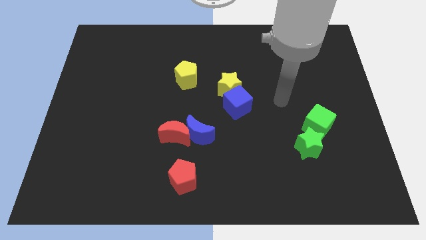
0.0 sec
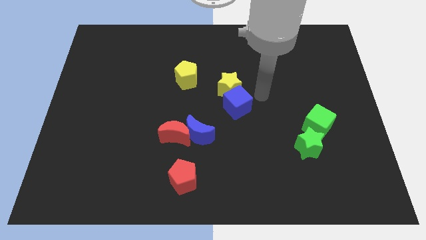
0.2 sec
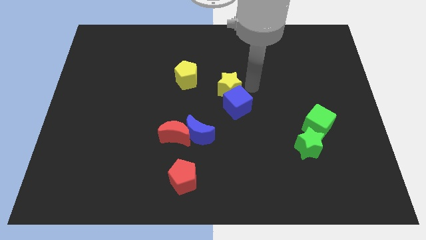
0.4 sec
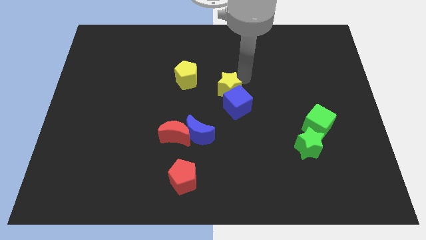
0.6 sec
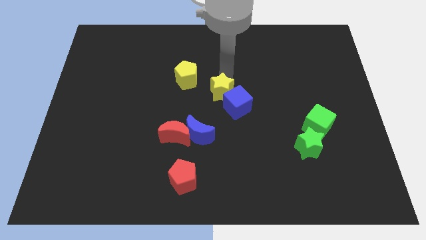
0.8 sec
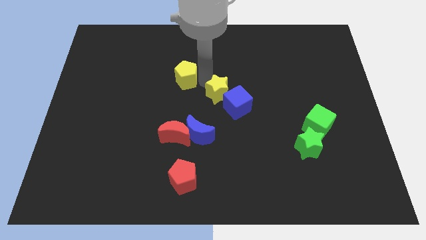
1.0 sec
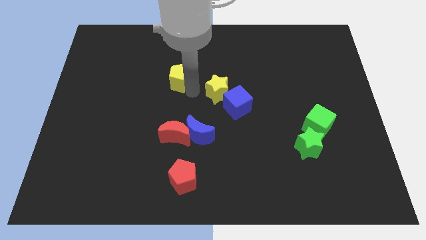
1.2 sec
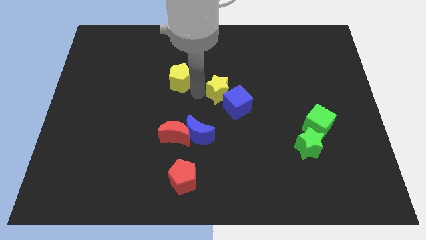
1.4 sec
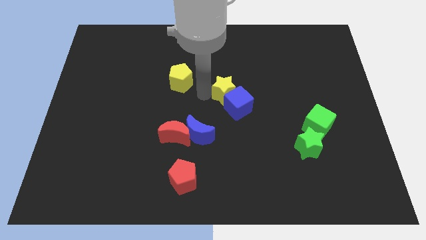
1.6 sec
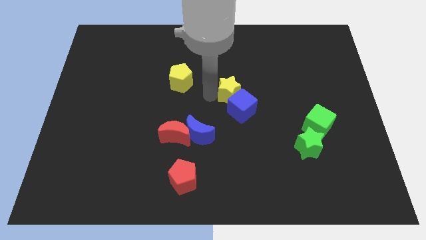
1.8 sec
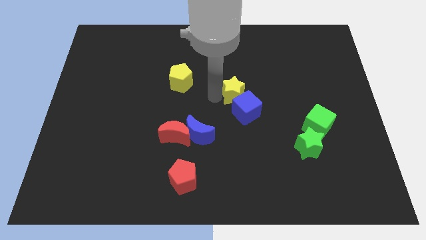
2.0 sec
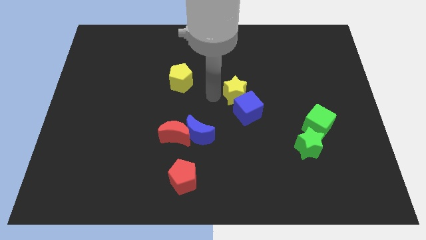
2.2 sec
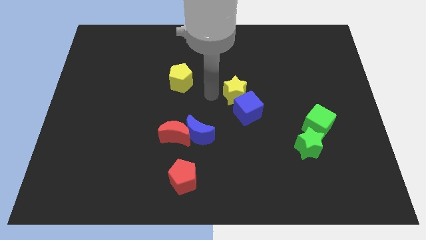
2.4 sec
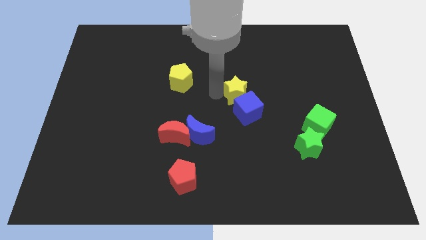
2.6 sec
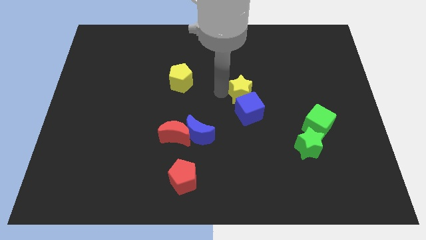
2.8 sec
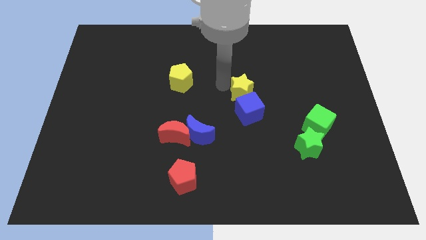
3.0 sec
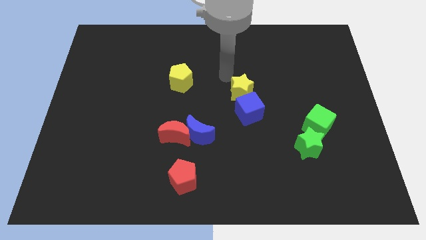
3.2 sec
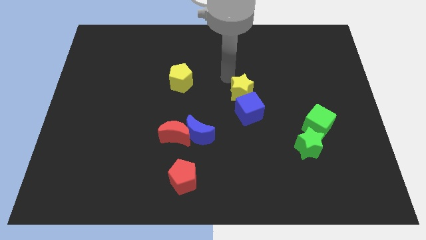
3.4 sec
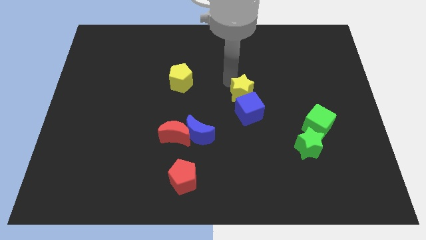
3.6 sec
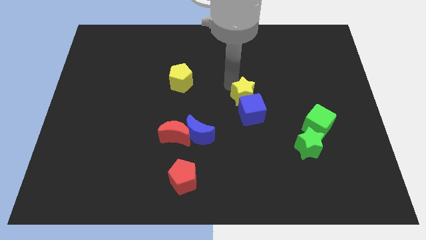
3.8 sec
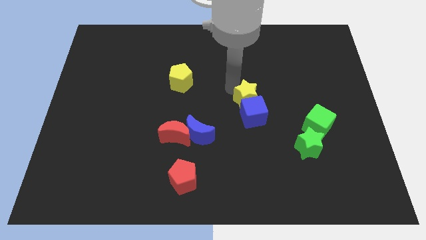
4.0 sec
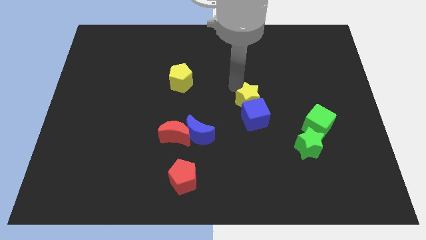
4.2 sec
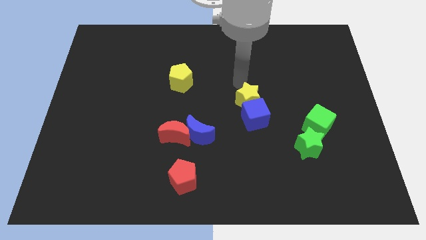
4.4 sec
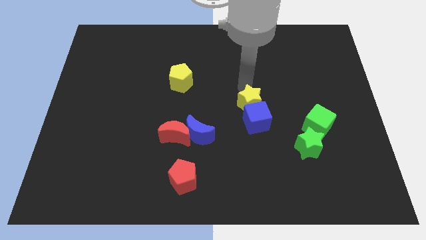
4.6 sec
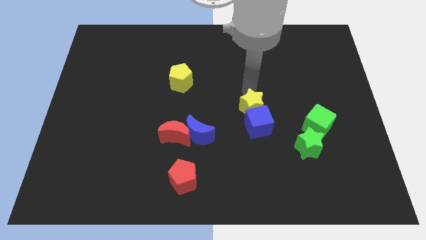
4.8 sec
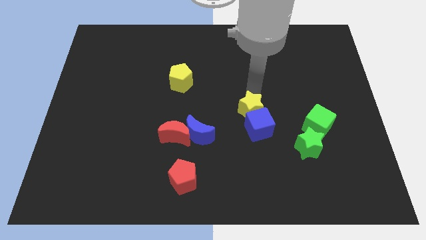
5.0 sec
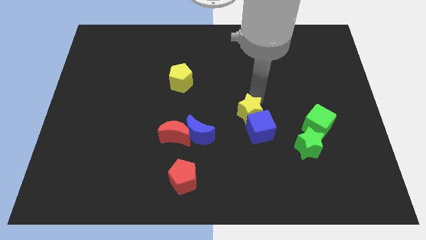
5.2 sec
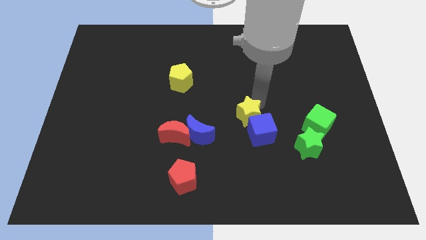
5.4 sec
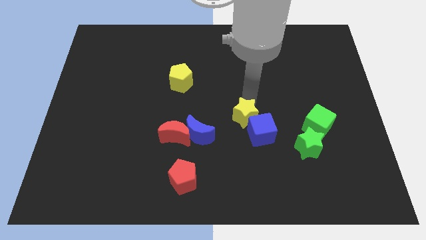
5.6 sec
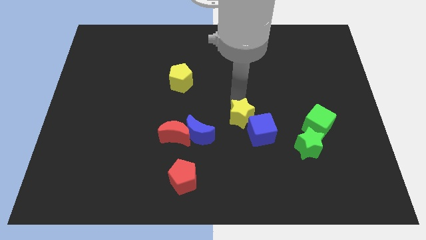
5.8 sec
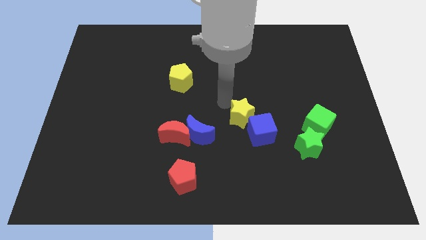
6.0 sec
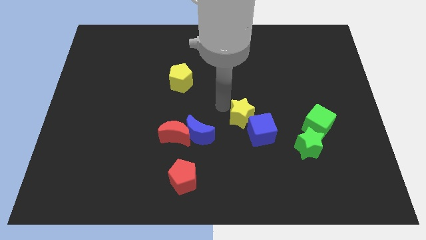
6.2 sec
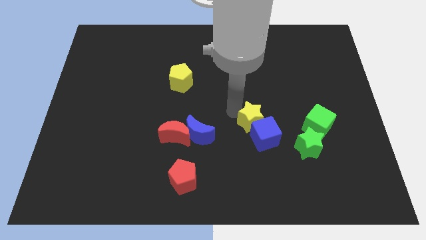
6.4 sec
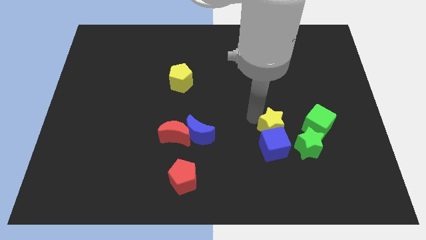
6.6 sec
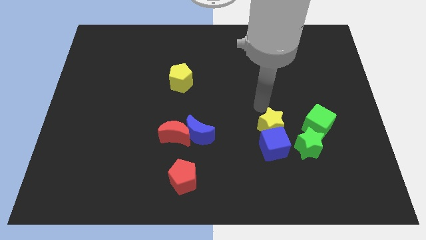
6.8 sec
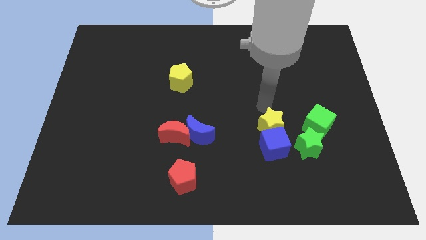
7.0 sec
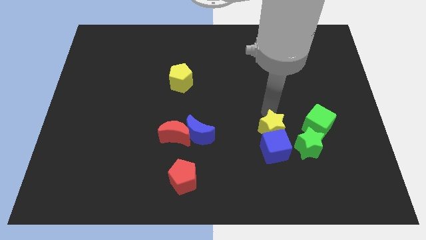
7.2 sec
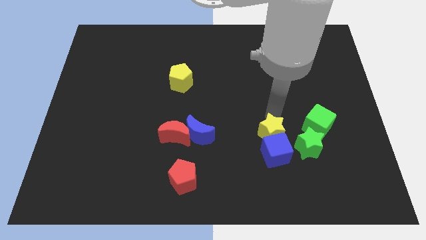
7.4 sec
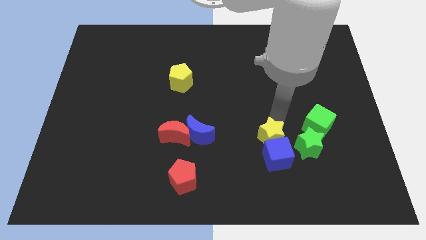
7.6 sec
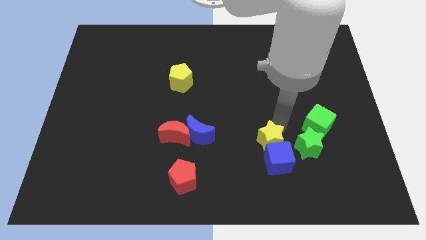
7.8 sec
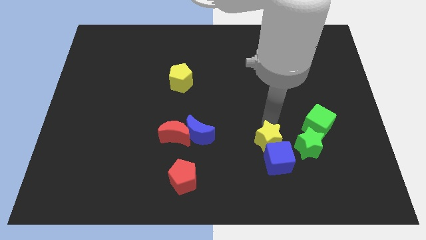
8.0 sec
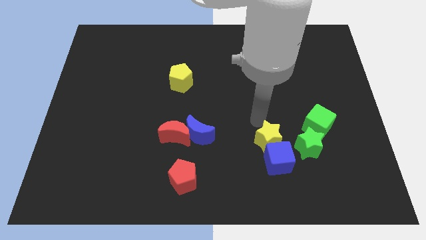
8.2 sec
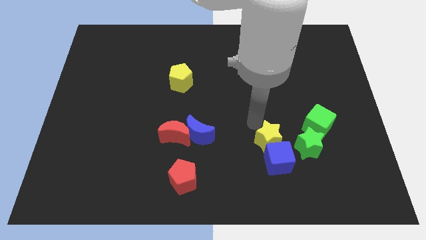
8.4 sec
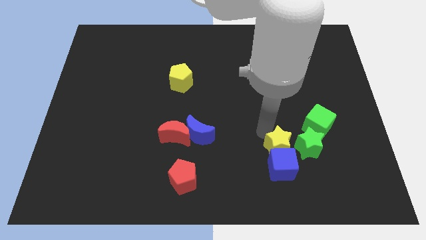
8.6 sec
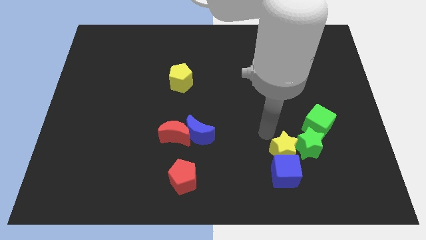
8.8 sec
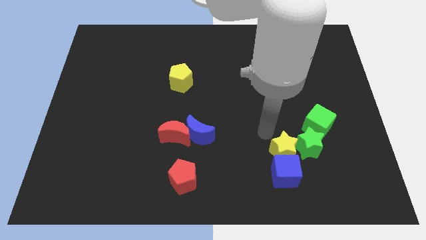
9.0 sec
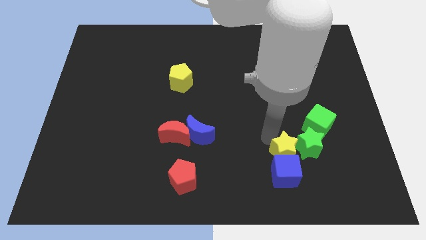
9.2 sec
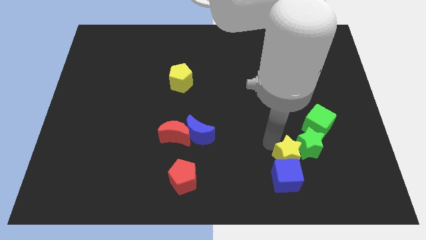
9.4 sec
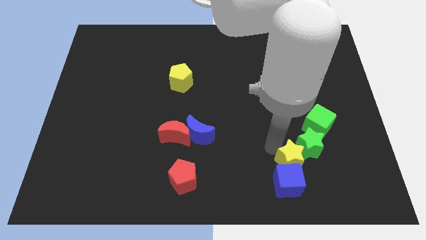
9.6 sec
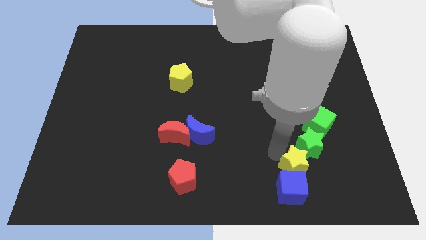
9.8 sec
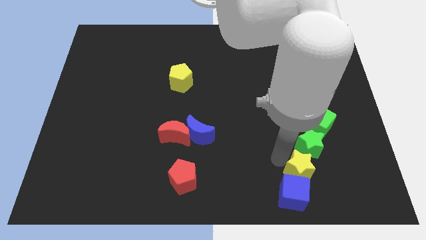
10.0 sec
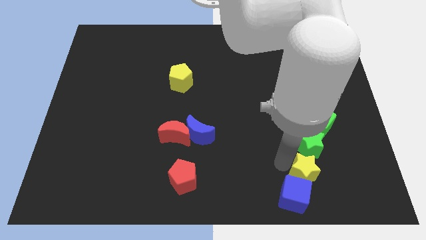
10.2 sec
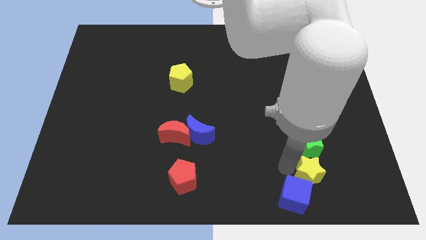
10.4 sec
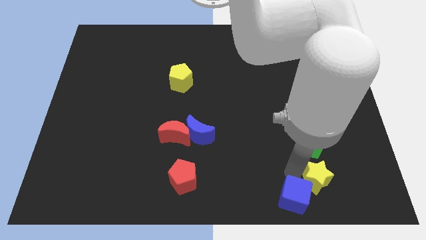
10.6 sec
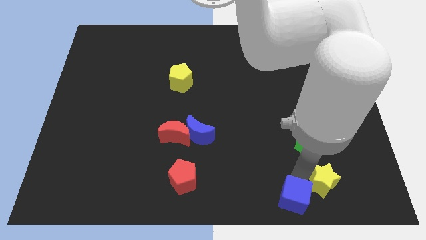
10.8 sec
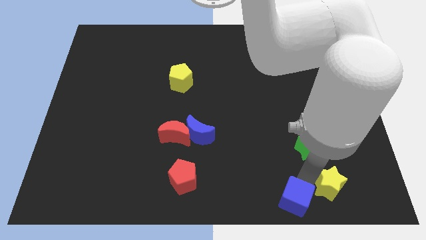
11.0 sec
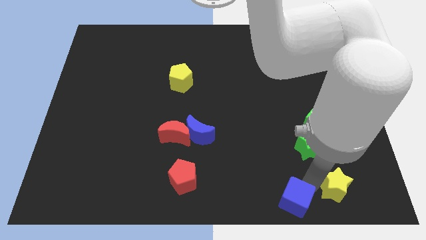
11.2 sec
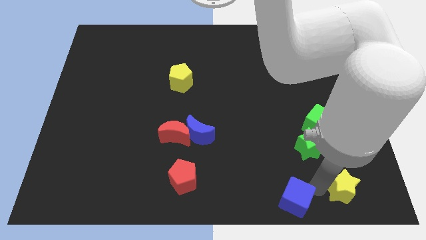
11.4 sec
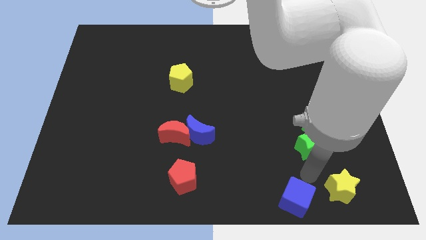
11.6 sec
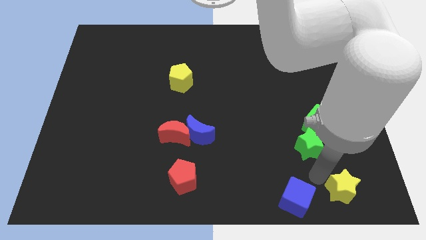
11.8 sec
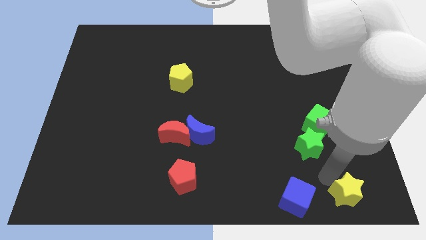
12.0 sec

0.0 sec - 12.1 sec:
slide the yellow star to the bottom right of the board

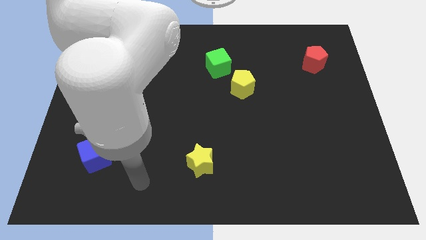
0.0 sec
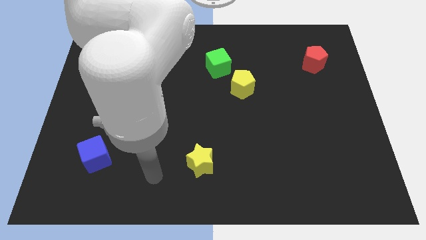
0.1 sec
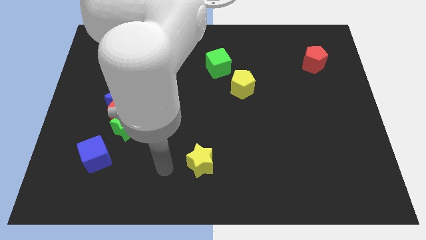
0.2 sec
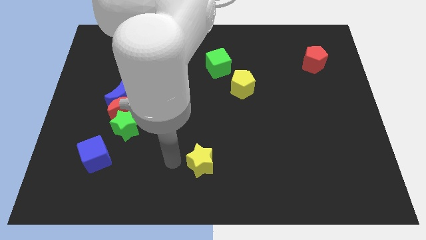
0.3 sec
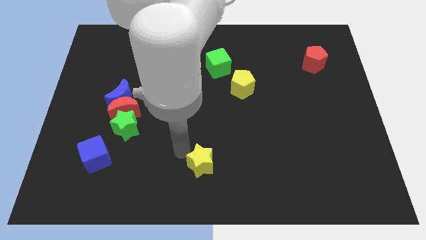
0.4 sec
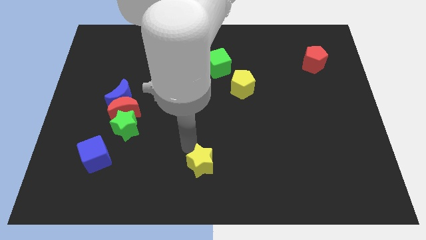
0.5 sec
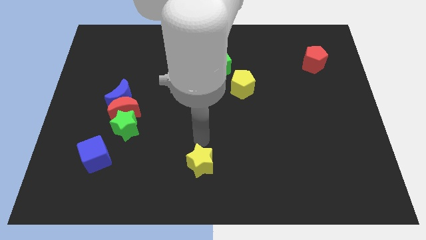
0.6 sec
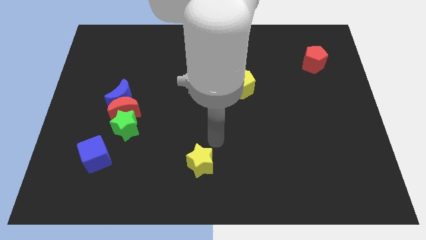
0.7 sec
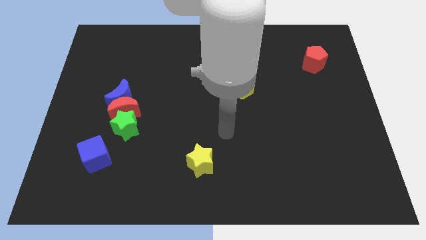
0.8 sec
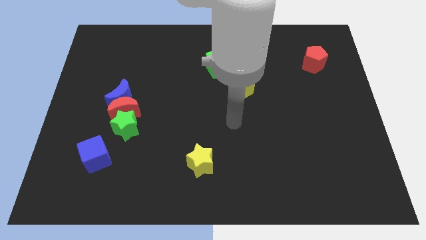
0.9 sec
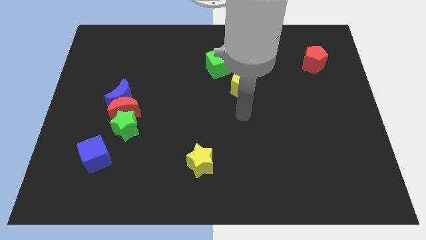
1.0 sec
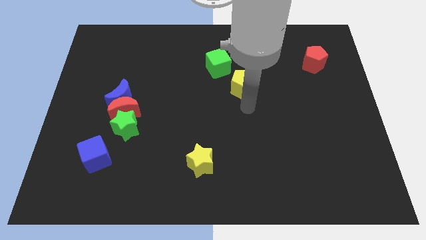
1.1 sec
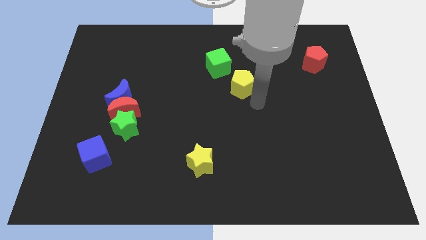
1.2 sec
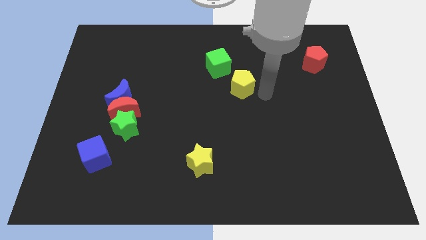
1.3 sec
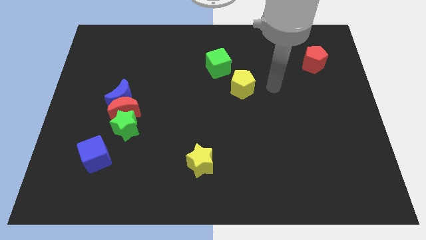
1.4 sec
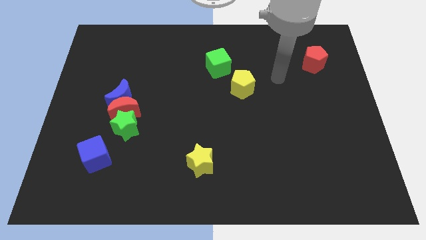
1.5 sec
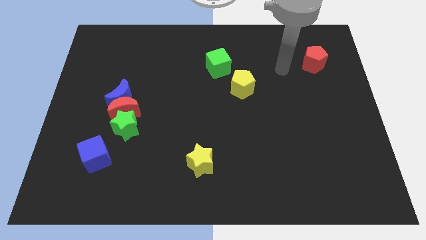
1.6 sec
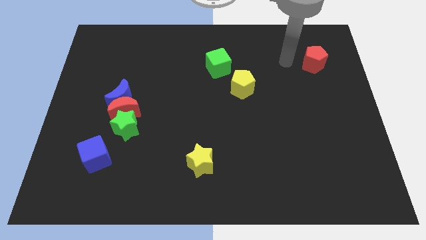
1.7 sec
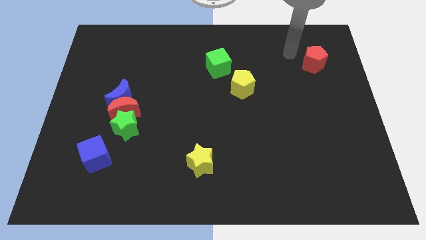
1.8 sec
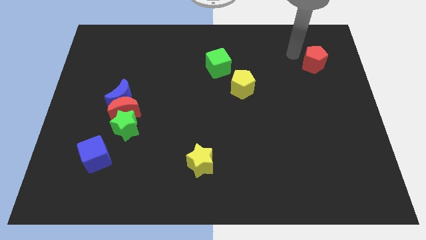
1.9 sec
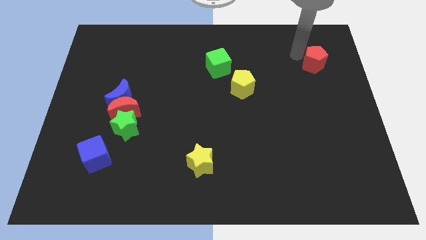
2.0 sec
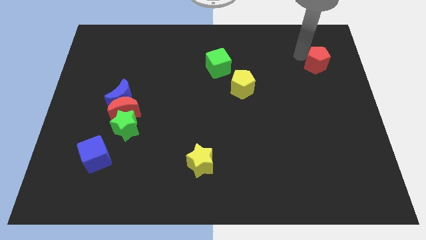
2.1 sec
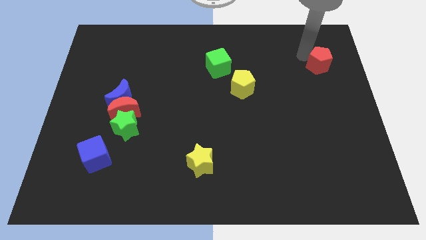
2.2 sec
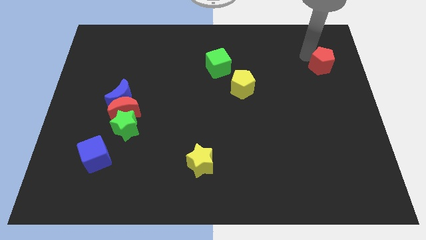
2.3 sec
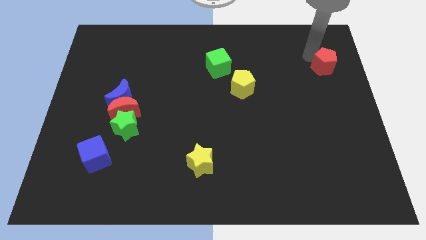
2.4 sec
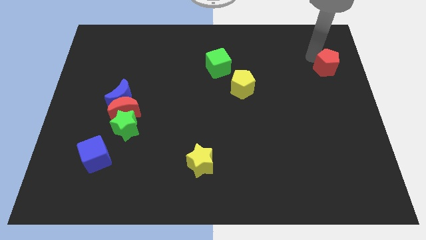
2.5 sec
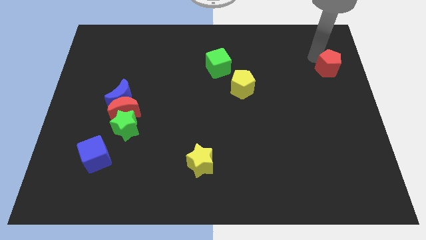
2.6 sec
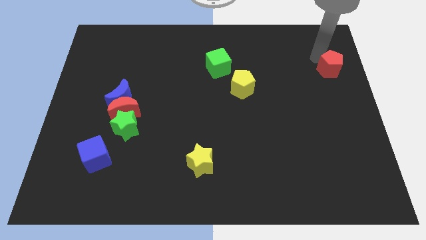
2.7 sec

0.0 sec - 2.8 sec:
put the red pentagon to the right side
